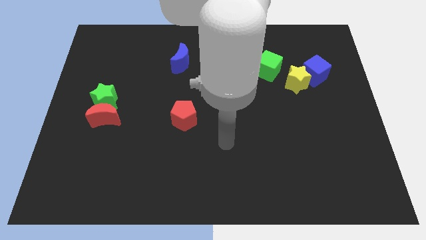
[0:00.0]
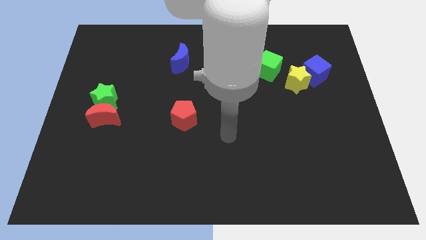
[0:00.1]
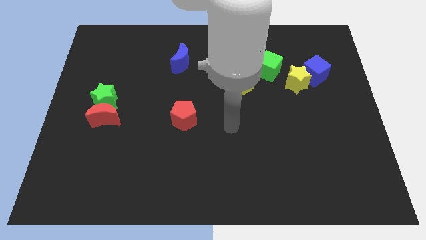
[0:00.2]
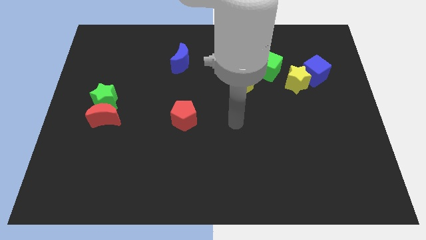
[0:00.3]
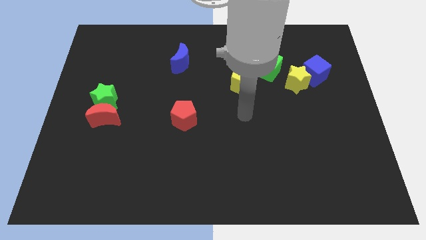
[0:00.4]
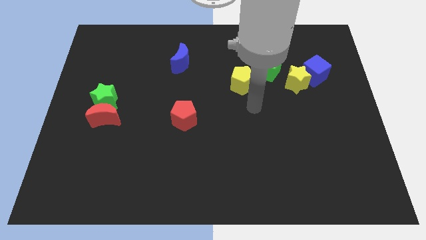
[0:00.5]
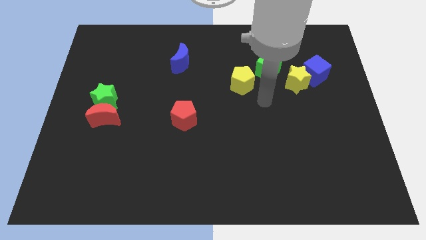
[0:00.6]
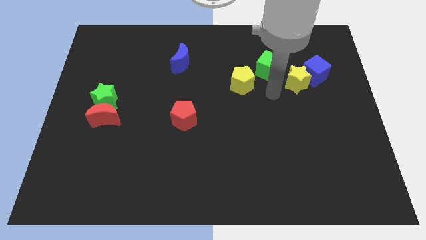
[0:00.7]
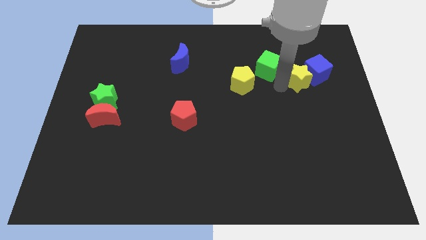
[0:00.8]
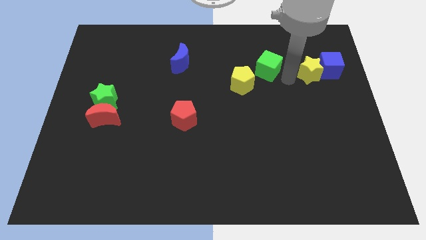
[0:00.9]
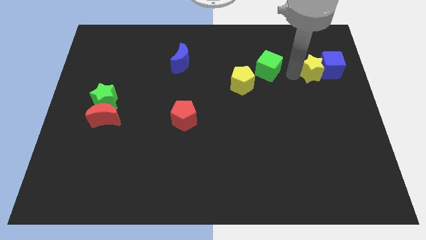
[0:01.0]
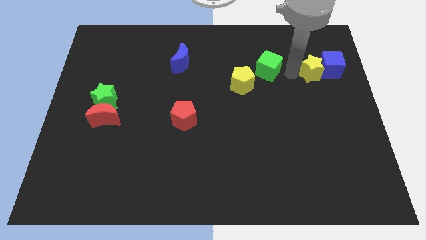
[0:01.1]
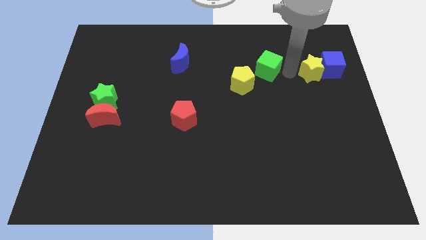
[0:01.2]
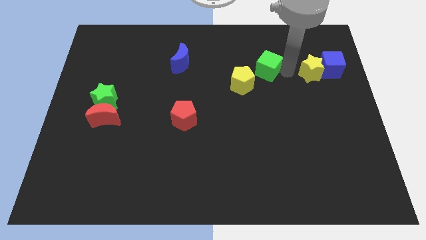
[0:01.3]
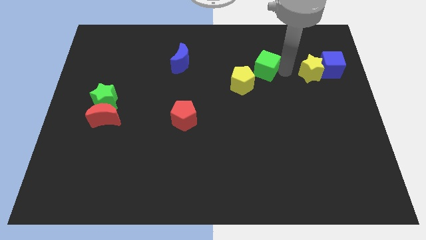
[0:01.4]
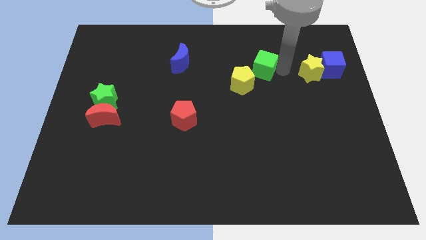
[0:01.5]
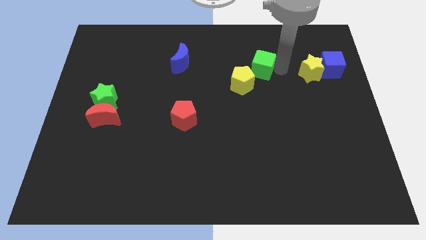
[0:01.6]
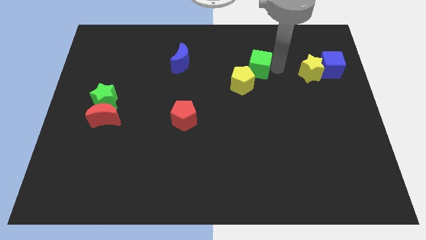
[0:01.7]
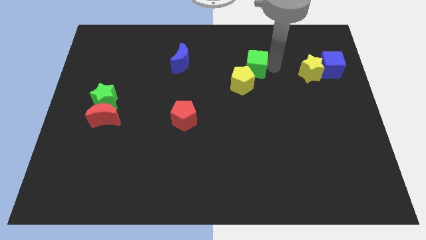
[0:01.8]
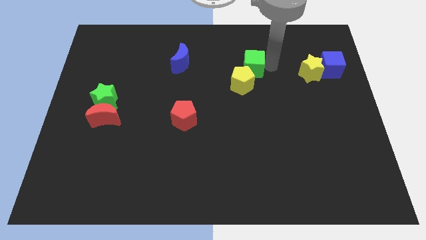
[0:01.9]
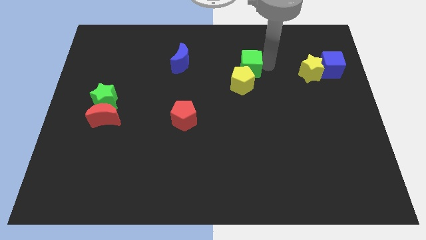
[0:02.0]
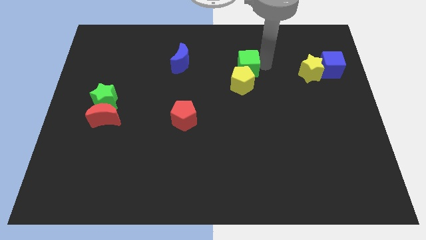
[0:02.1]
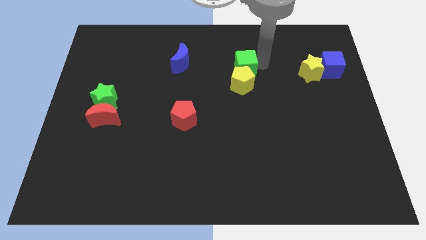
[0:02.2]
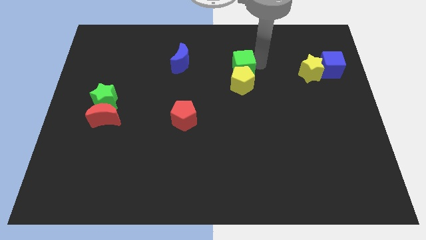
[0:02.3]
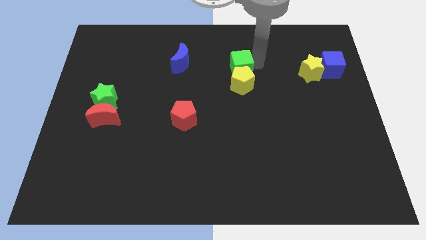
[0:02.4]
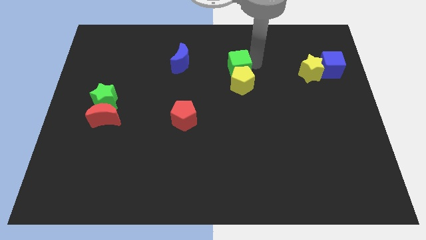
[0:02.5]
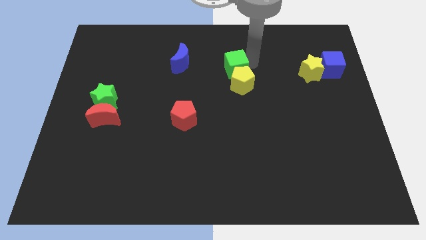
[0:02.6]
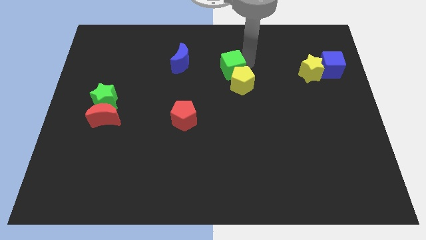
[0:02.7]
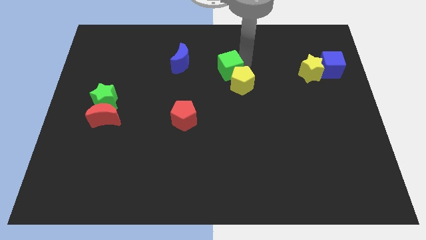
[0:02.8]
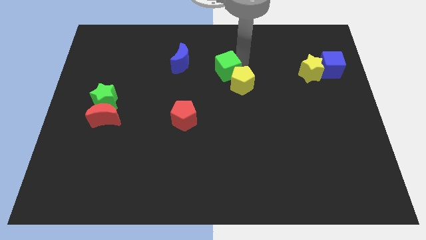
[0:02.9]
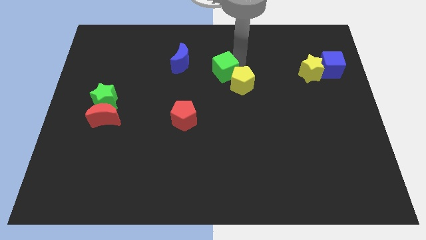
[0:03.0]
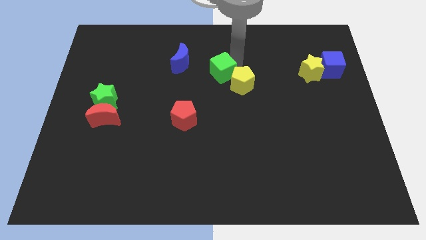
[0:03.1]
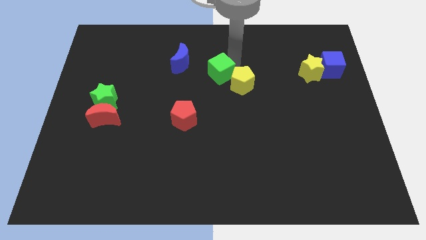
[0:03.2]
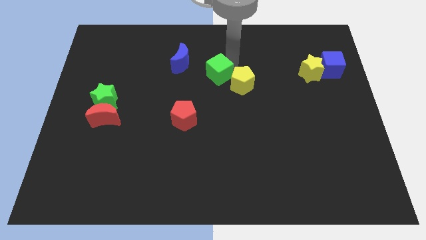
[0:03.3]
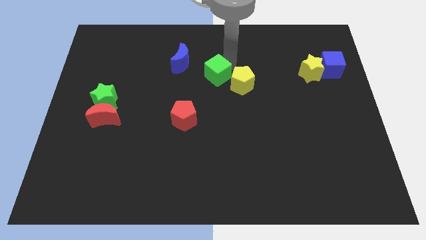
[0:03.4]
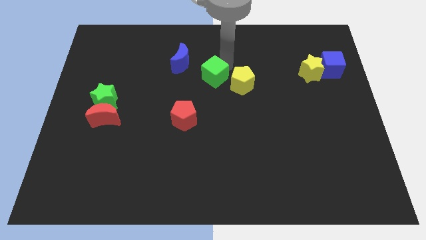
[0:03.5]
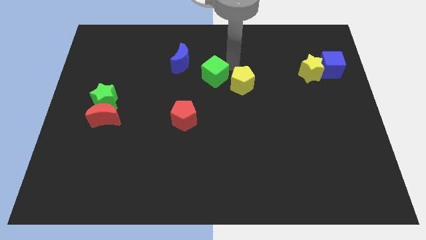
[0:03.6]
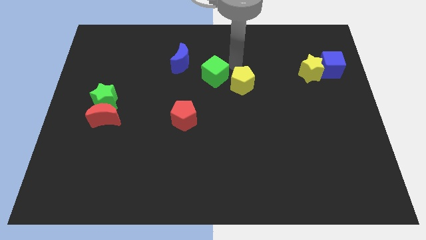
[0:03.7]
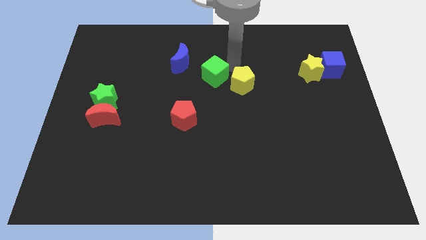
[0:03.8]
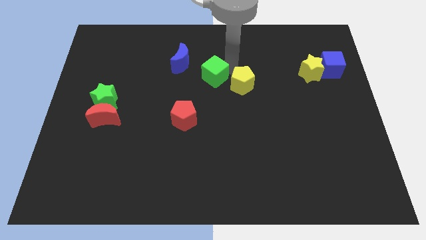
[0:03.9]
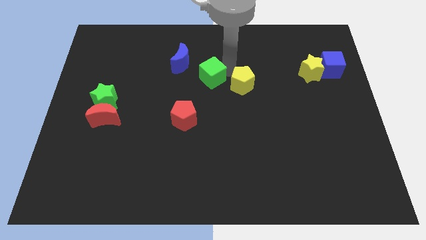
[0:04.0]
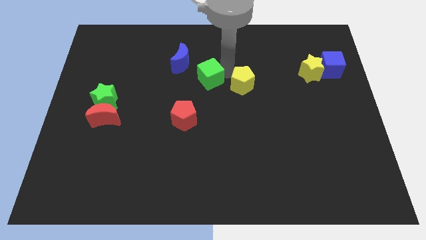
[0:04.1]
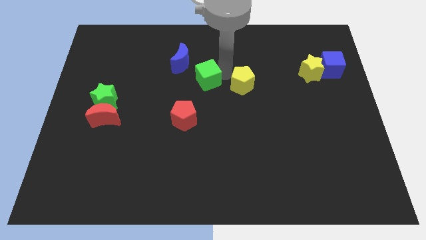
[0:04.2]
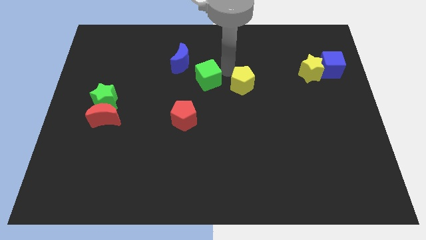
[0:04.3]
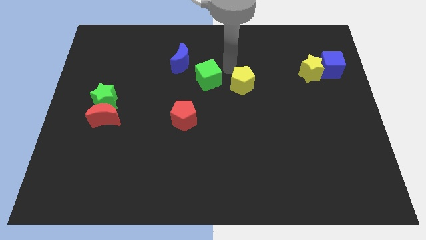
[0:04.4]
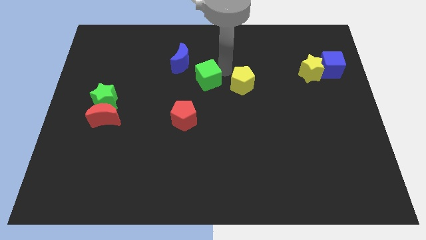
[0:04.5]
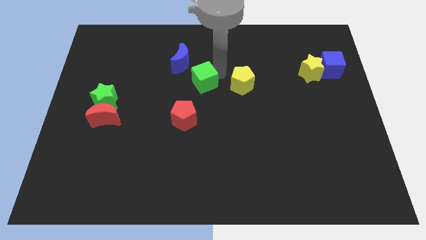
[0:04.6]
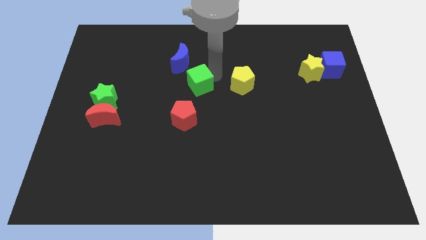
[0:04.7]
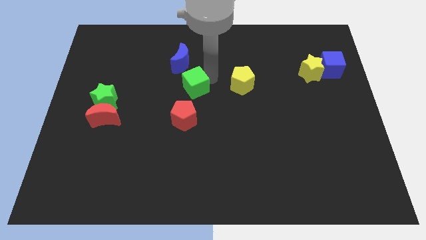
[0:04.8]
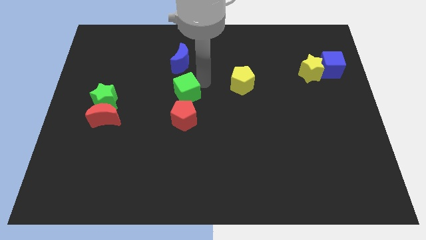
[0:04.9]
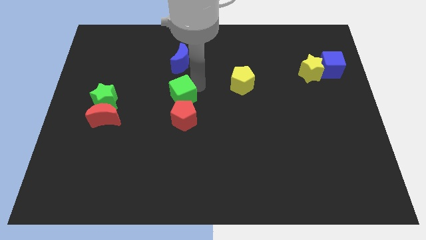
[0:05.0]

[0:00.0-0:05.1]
slide the green cube to the top left side of the red pentagon

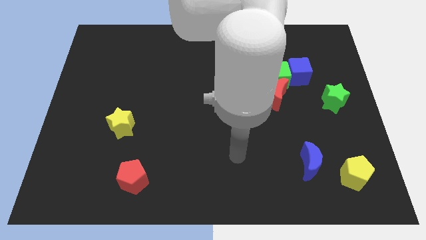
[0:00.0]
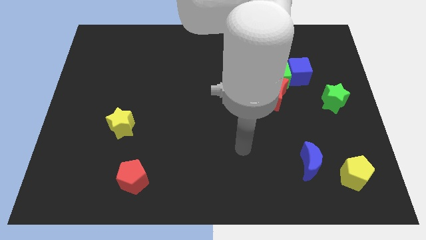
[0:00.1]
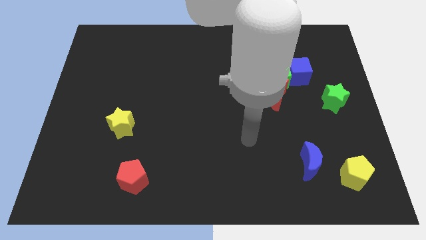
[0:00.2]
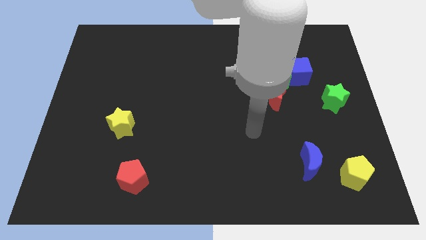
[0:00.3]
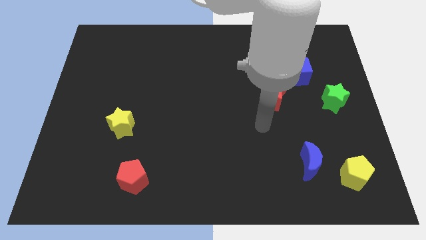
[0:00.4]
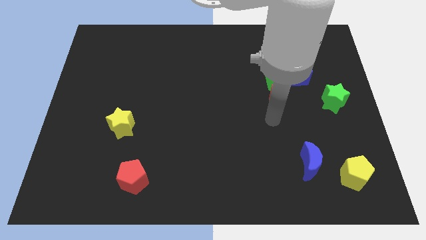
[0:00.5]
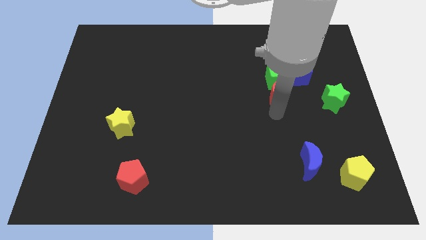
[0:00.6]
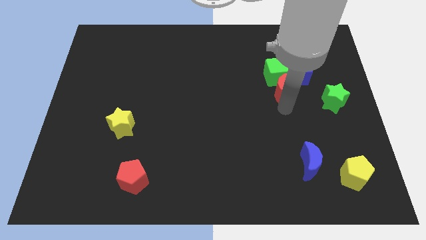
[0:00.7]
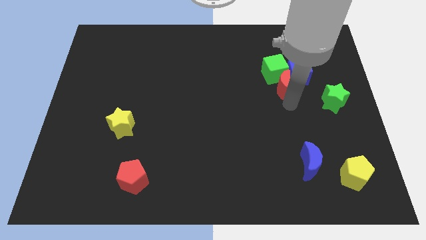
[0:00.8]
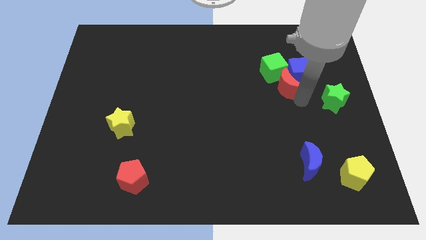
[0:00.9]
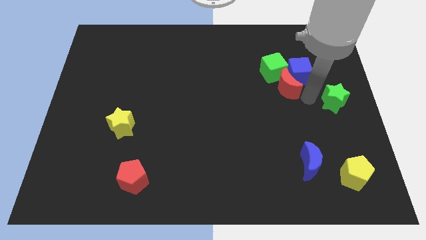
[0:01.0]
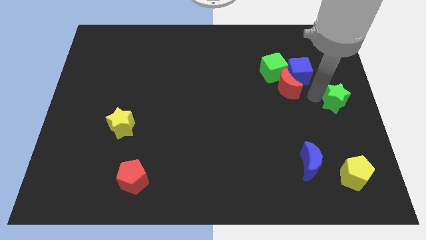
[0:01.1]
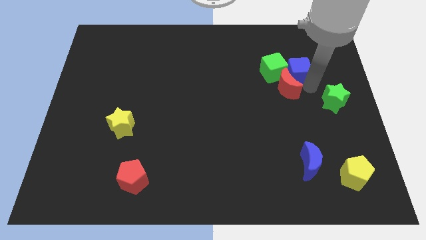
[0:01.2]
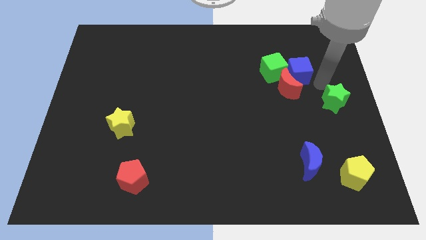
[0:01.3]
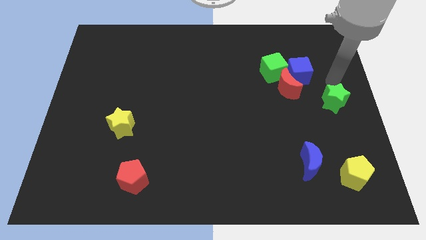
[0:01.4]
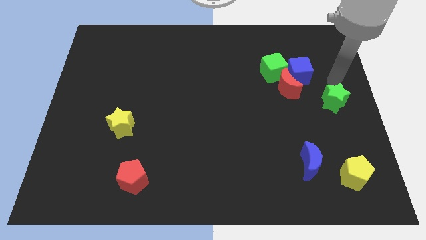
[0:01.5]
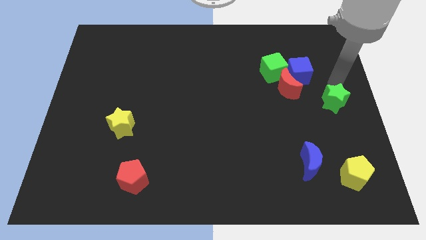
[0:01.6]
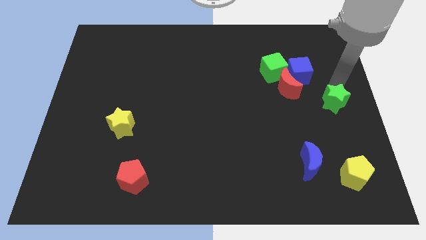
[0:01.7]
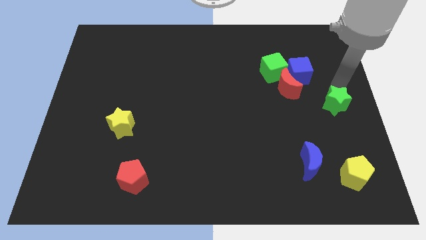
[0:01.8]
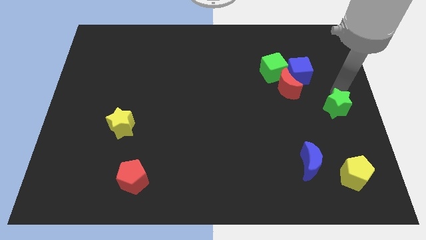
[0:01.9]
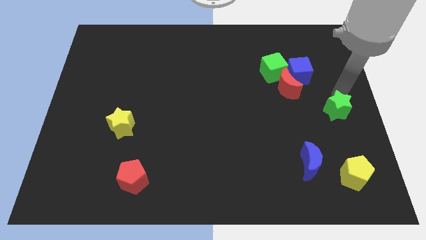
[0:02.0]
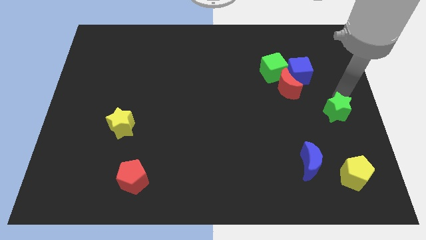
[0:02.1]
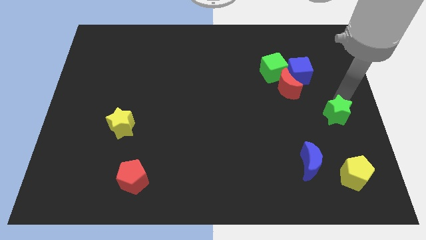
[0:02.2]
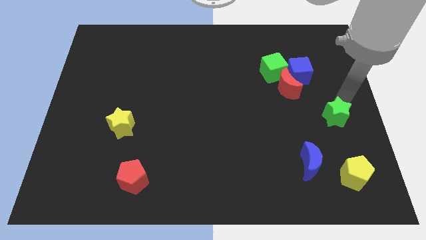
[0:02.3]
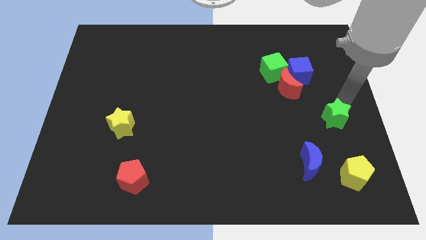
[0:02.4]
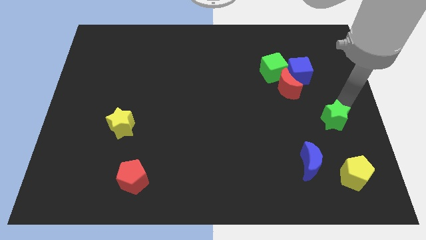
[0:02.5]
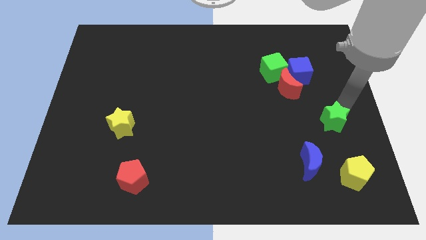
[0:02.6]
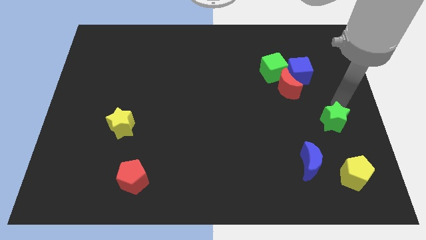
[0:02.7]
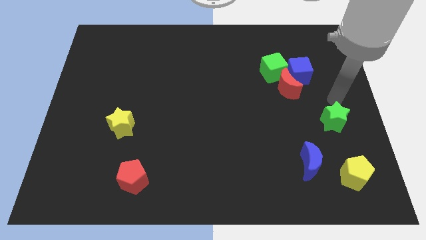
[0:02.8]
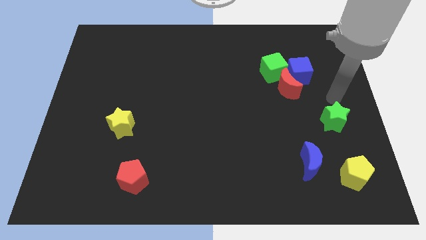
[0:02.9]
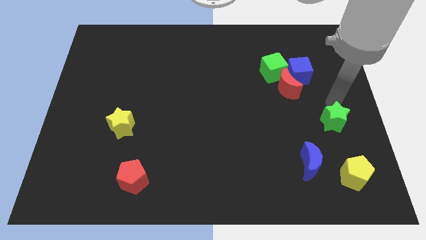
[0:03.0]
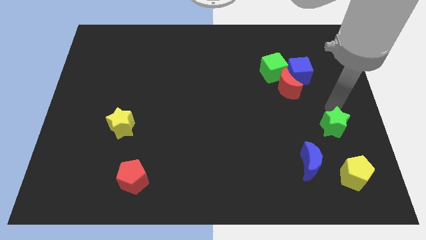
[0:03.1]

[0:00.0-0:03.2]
move the green star to the top right side of the blue moon
